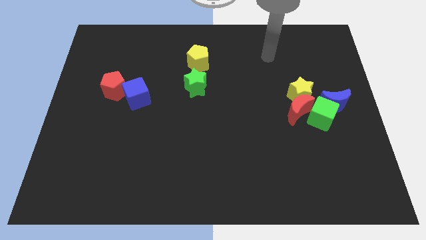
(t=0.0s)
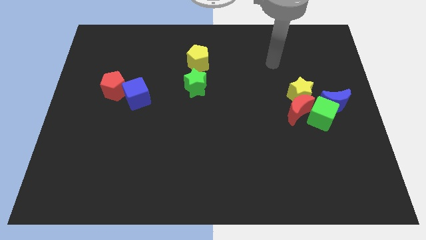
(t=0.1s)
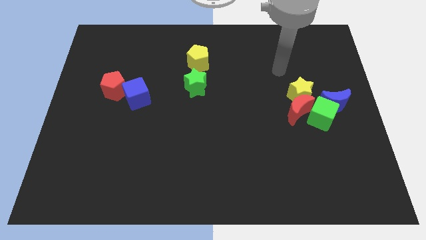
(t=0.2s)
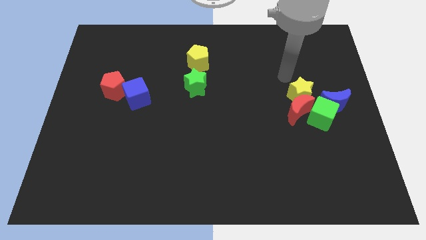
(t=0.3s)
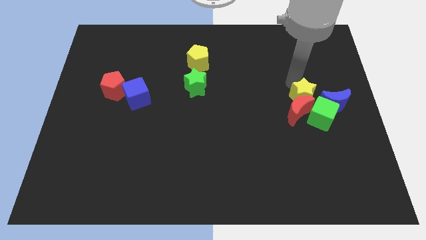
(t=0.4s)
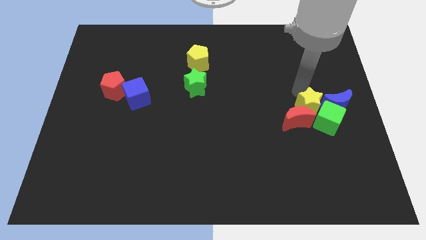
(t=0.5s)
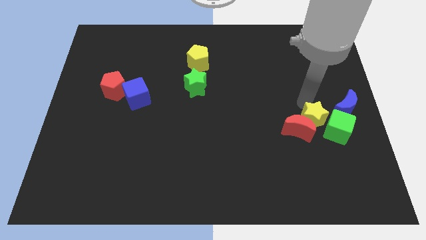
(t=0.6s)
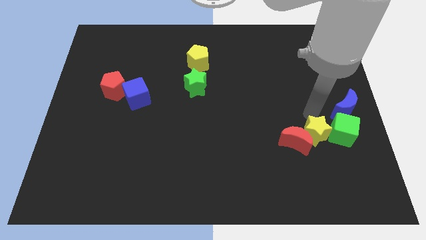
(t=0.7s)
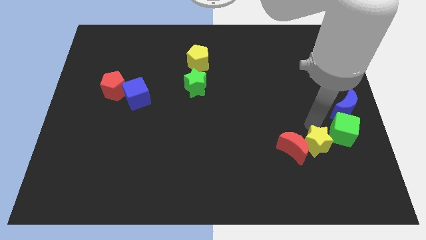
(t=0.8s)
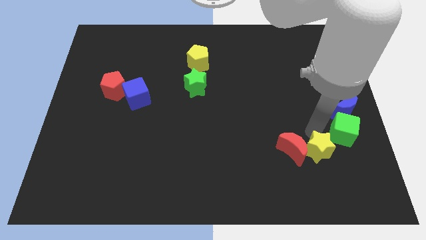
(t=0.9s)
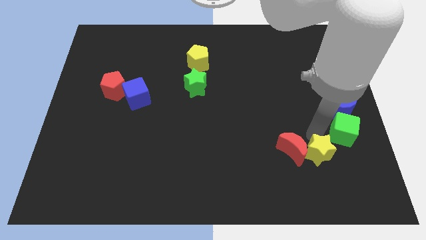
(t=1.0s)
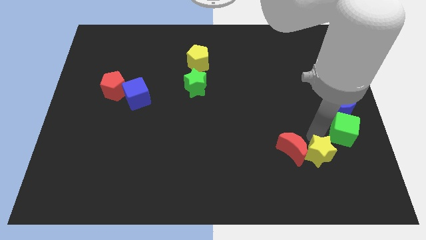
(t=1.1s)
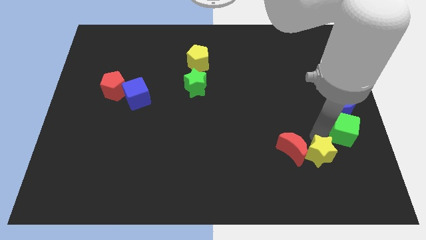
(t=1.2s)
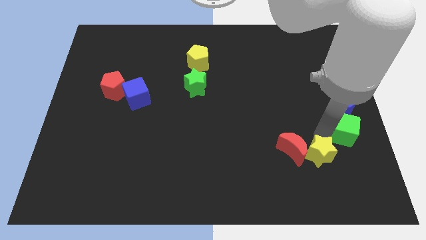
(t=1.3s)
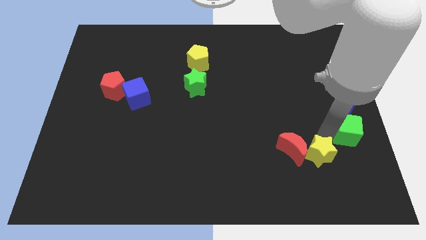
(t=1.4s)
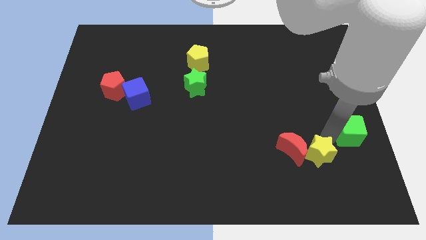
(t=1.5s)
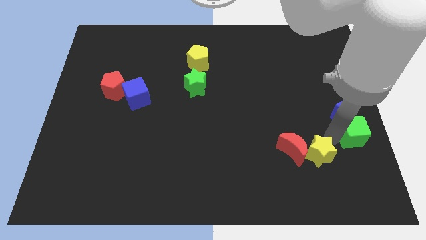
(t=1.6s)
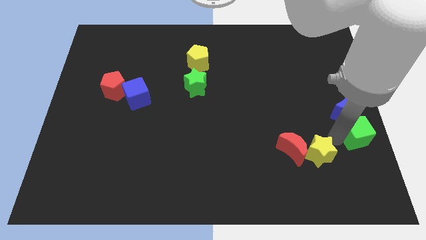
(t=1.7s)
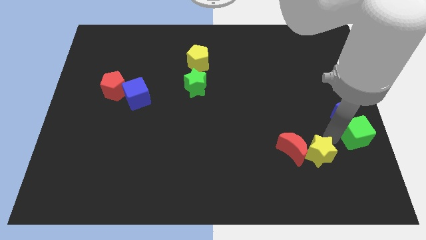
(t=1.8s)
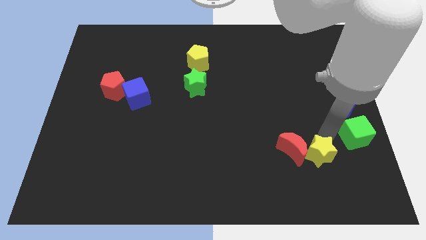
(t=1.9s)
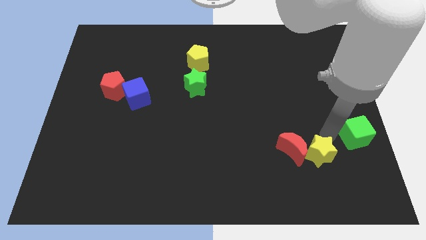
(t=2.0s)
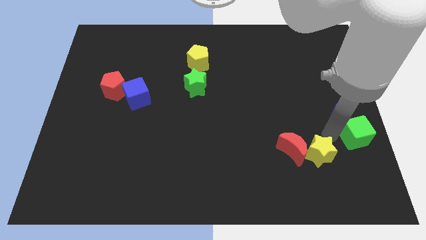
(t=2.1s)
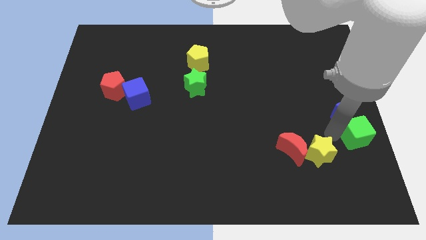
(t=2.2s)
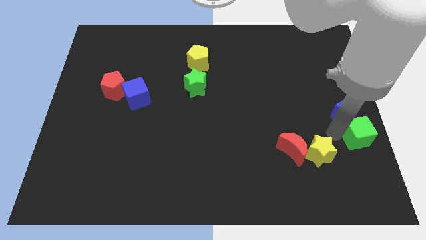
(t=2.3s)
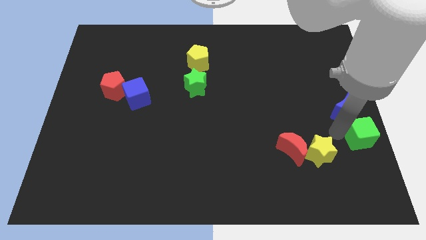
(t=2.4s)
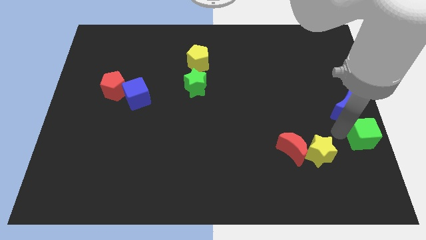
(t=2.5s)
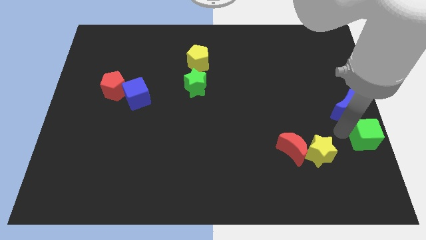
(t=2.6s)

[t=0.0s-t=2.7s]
separate the green cube from the group of blocks

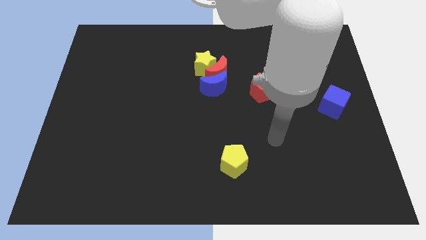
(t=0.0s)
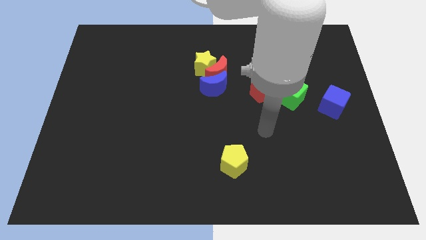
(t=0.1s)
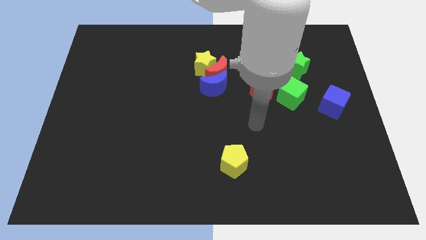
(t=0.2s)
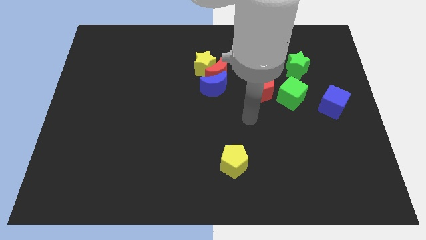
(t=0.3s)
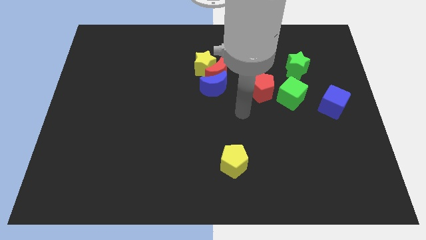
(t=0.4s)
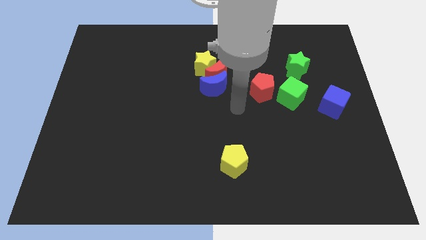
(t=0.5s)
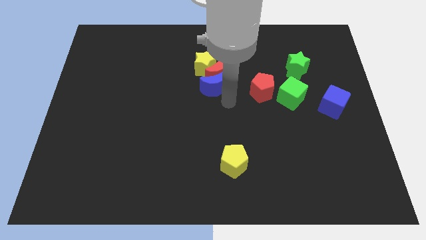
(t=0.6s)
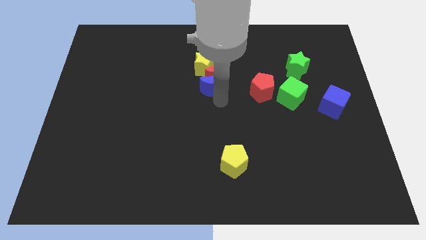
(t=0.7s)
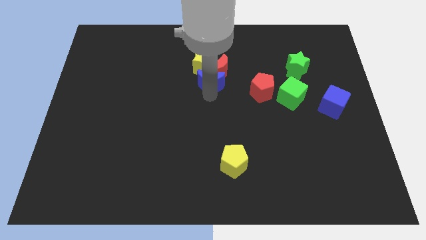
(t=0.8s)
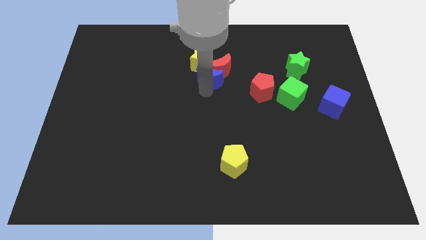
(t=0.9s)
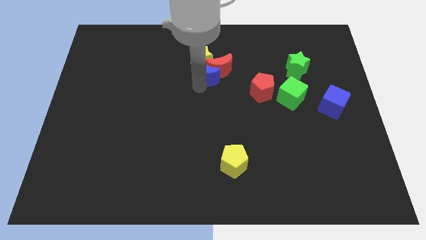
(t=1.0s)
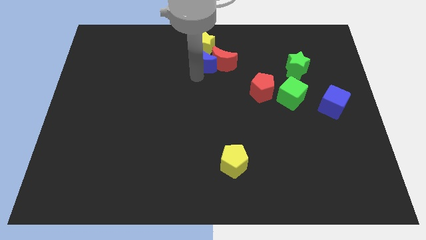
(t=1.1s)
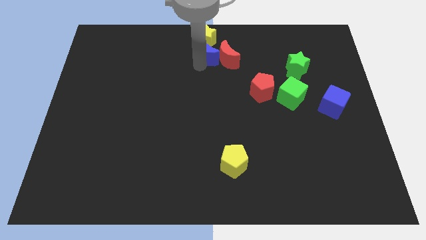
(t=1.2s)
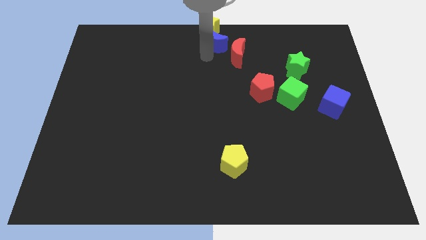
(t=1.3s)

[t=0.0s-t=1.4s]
separate the red moon from the yellow star and blue moon

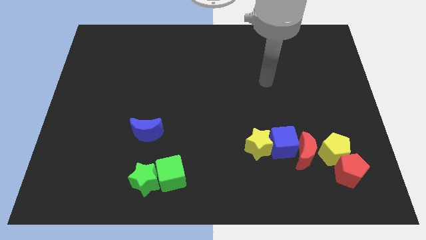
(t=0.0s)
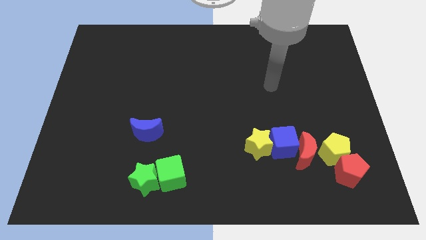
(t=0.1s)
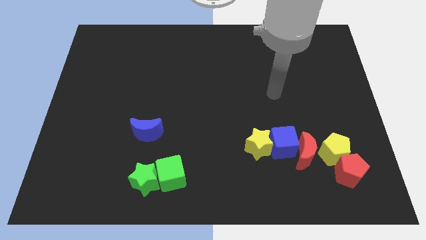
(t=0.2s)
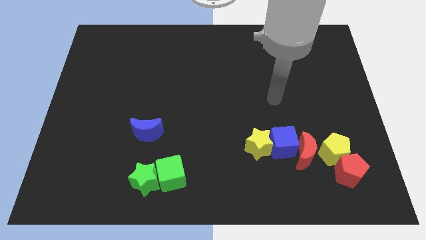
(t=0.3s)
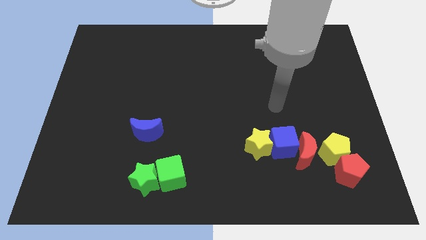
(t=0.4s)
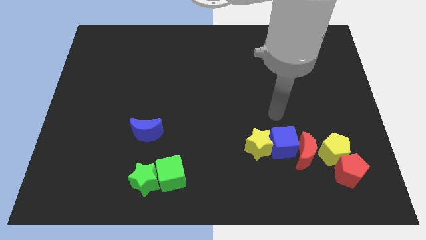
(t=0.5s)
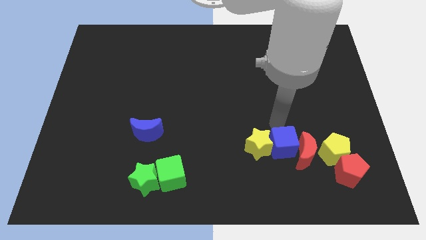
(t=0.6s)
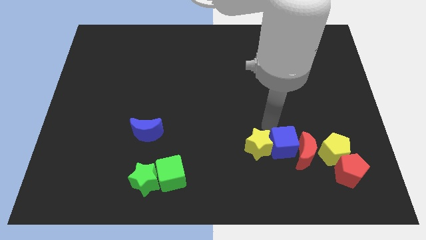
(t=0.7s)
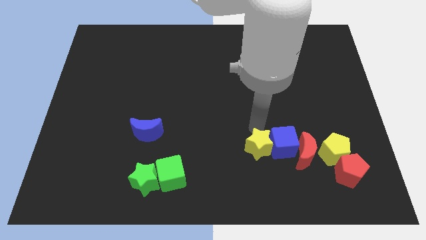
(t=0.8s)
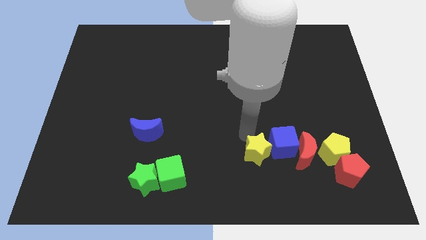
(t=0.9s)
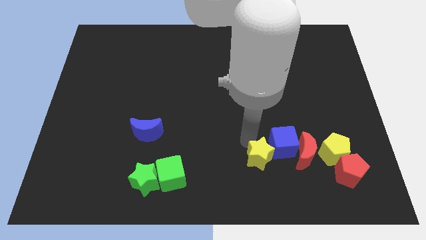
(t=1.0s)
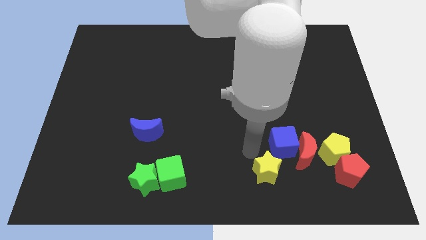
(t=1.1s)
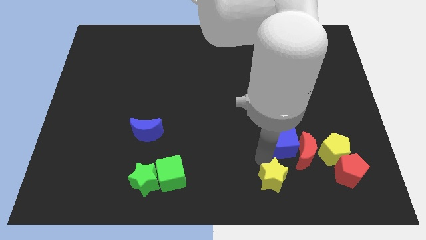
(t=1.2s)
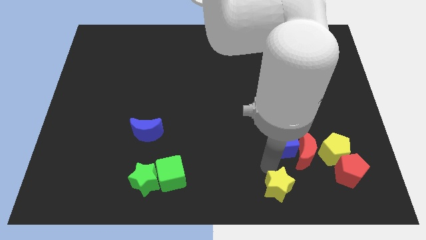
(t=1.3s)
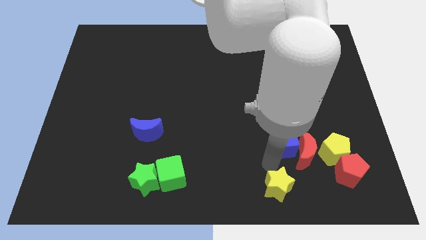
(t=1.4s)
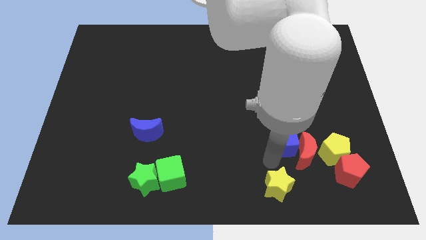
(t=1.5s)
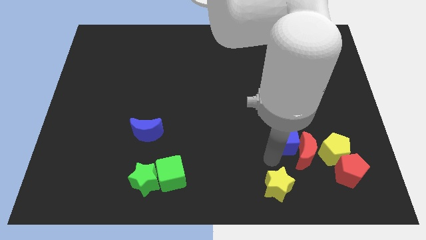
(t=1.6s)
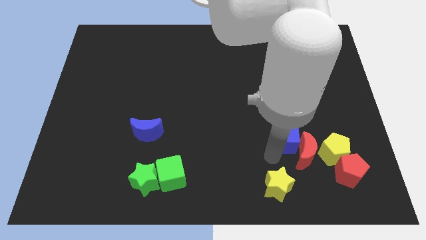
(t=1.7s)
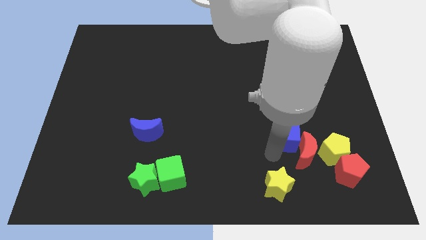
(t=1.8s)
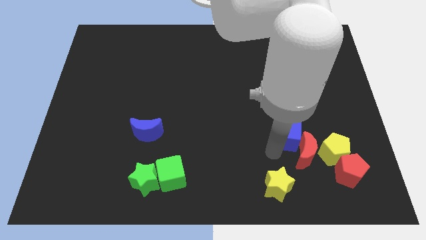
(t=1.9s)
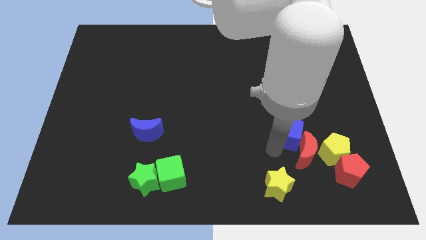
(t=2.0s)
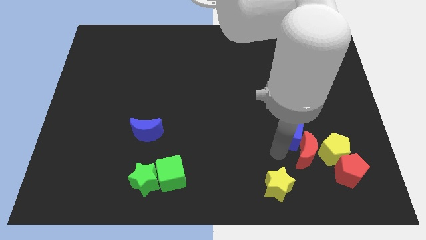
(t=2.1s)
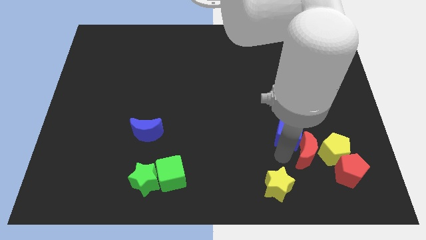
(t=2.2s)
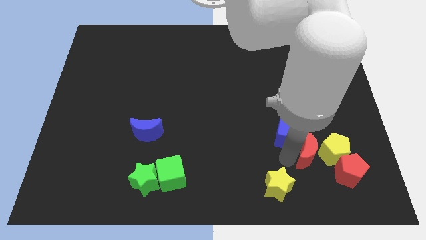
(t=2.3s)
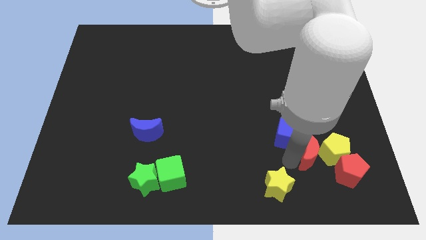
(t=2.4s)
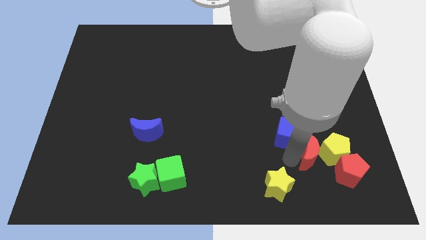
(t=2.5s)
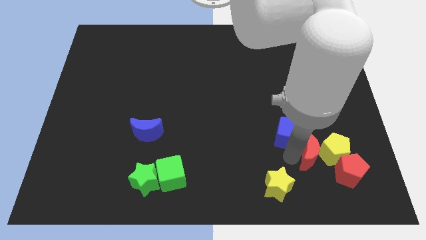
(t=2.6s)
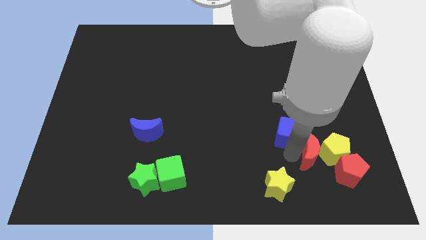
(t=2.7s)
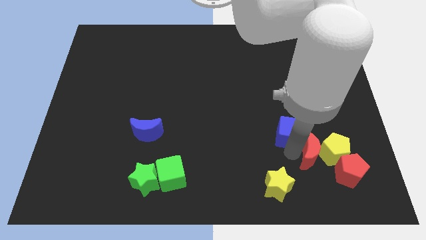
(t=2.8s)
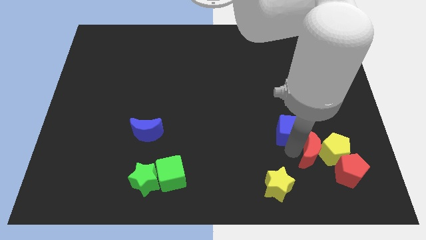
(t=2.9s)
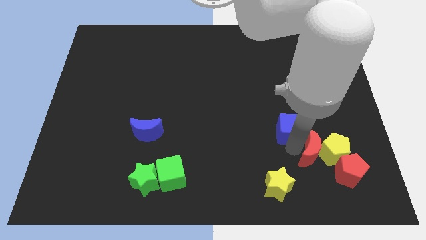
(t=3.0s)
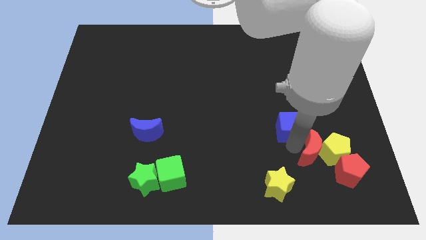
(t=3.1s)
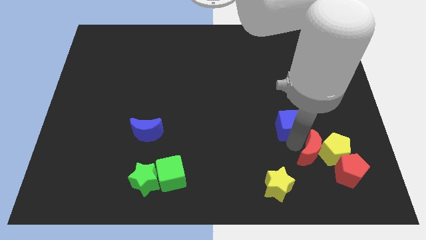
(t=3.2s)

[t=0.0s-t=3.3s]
pull the blue cube apart from the red moon and yellow star

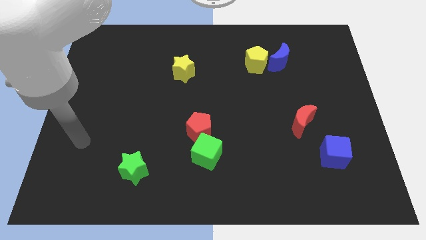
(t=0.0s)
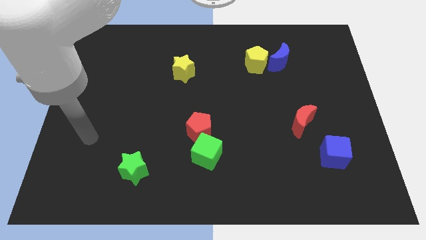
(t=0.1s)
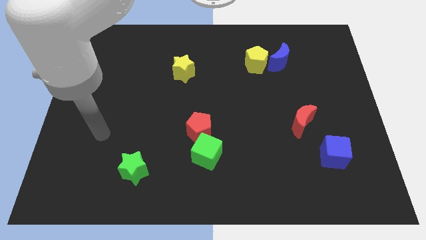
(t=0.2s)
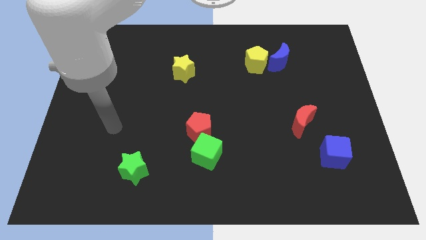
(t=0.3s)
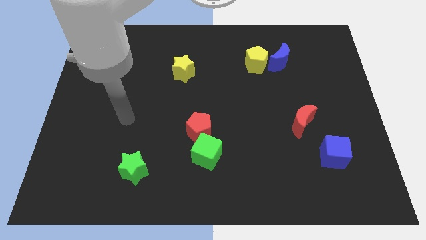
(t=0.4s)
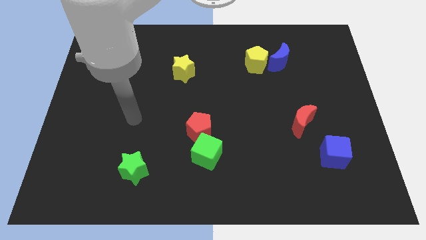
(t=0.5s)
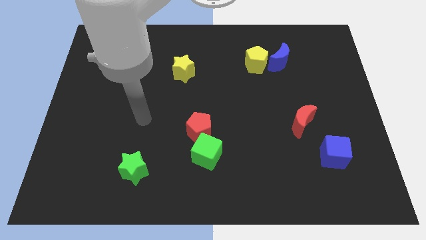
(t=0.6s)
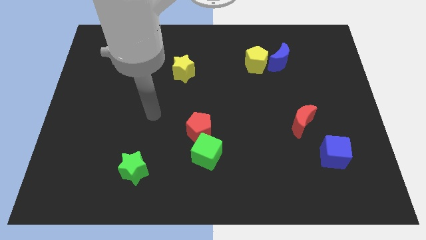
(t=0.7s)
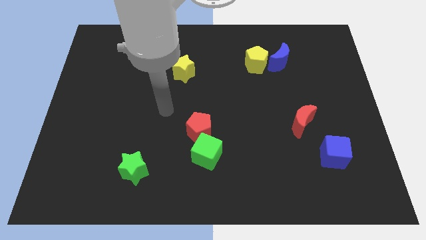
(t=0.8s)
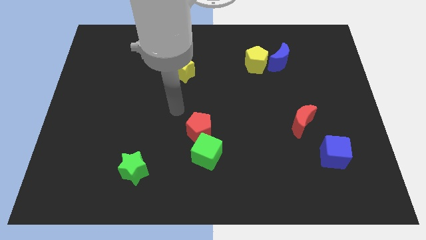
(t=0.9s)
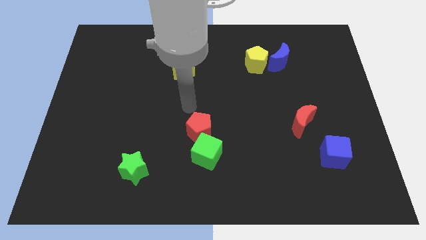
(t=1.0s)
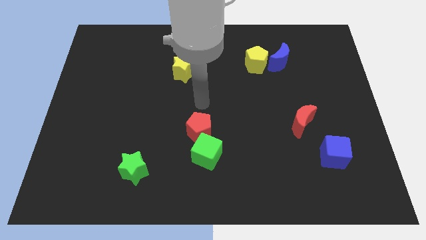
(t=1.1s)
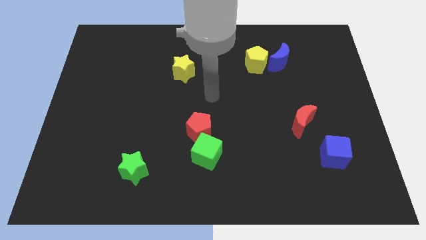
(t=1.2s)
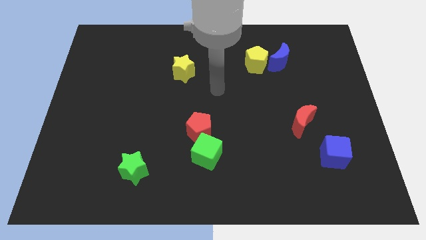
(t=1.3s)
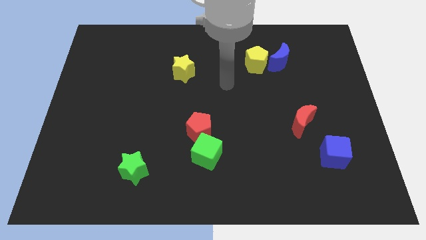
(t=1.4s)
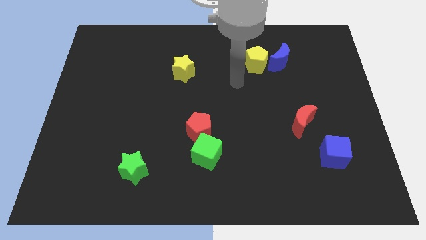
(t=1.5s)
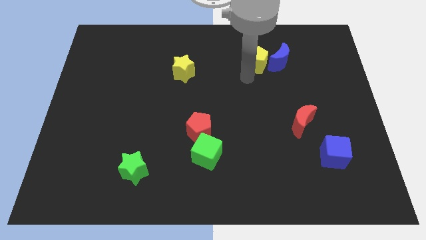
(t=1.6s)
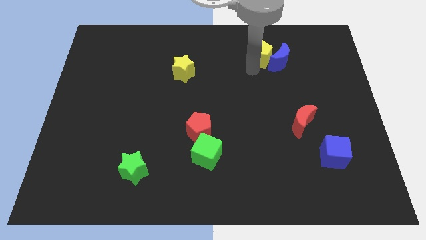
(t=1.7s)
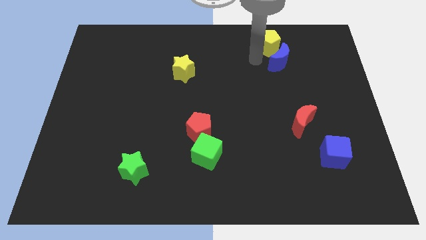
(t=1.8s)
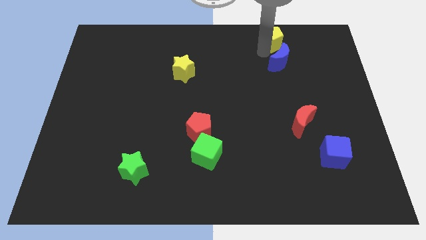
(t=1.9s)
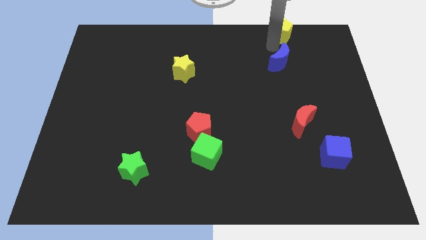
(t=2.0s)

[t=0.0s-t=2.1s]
separate the blue moon from the yellow pentagon
